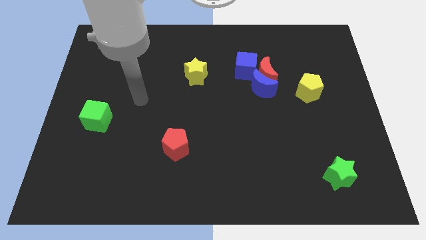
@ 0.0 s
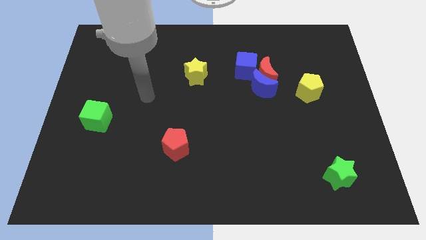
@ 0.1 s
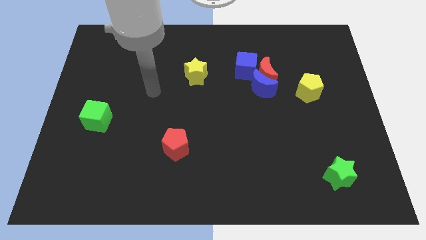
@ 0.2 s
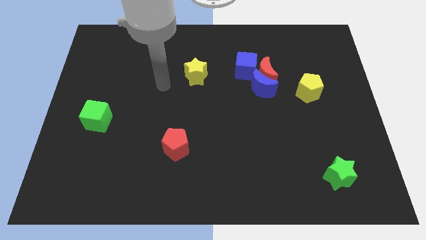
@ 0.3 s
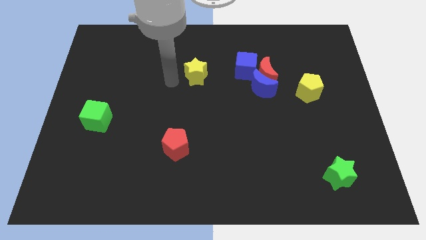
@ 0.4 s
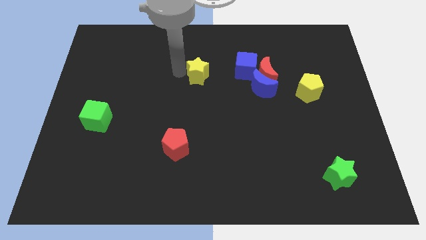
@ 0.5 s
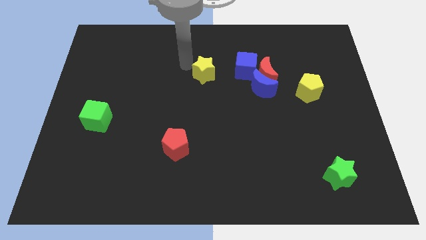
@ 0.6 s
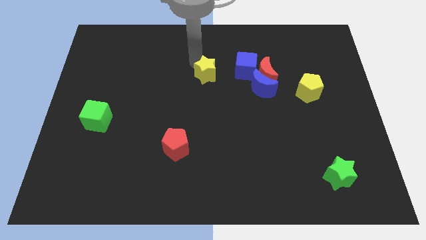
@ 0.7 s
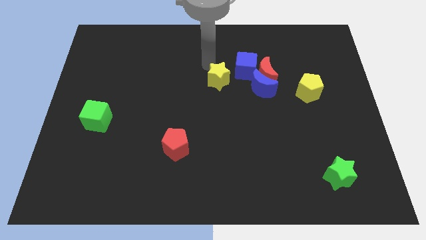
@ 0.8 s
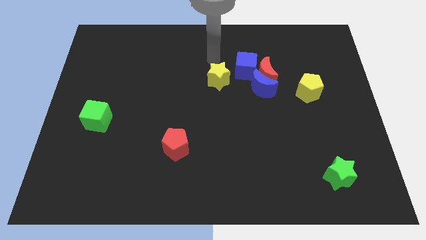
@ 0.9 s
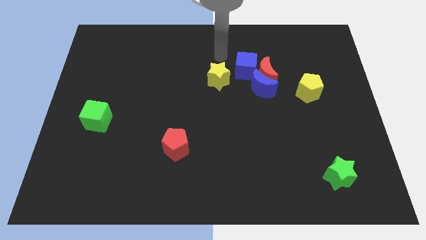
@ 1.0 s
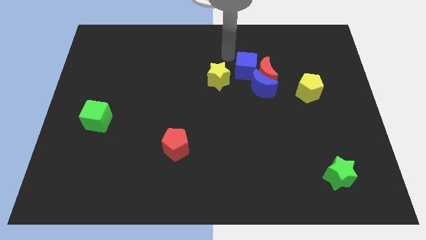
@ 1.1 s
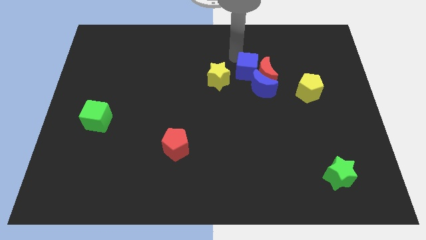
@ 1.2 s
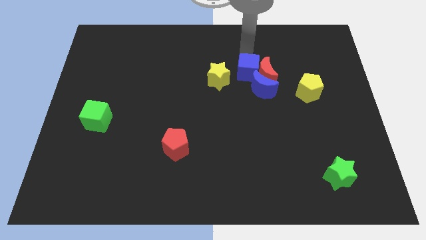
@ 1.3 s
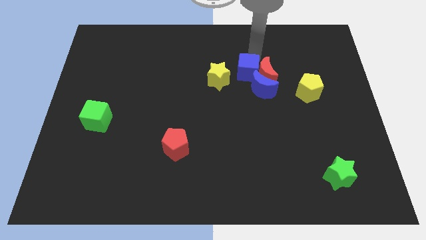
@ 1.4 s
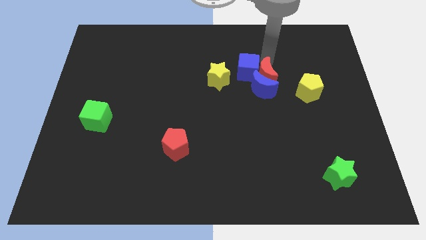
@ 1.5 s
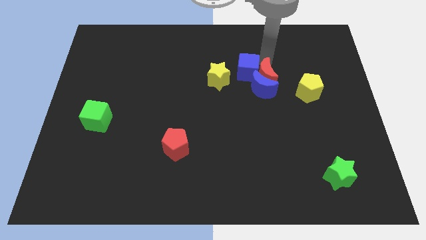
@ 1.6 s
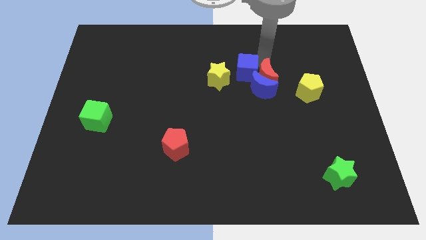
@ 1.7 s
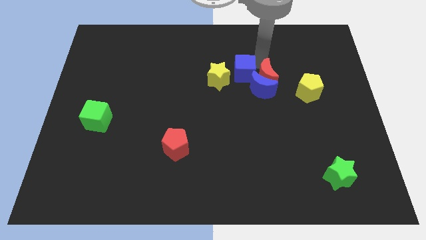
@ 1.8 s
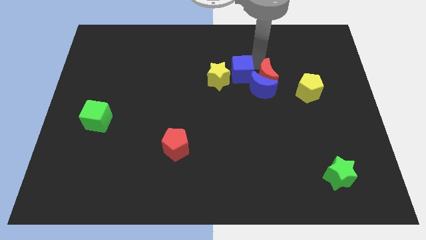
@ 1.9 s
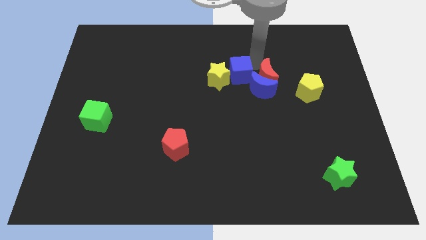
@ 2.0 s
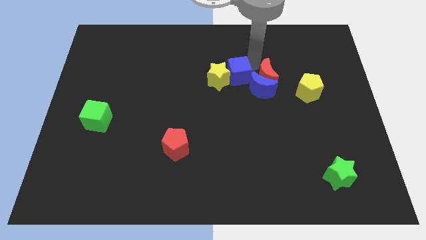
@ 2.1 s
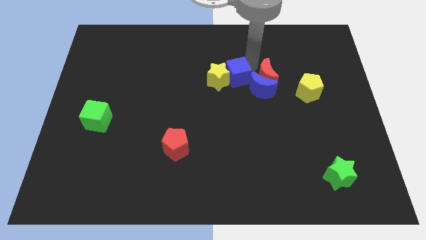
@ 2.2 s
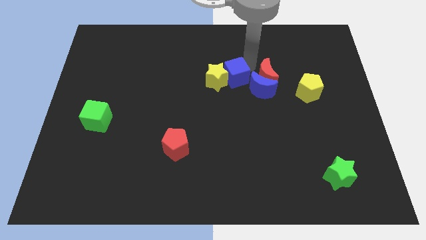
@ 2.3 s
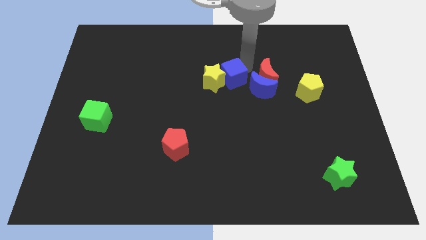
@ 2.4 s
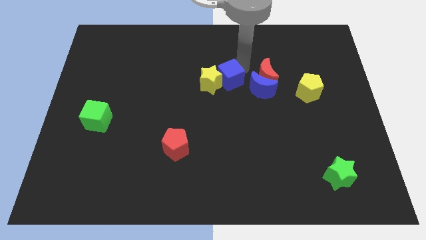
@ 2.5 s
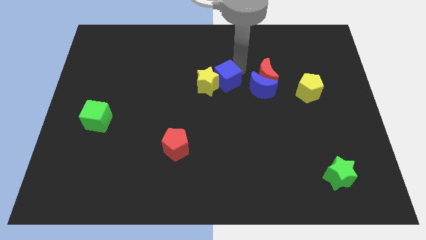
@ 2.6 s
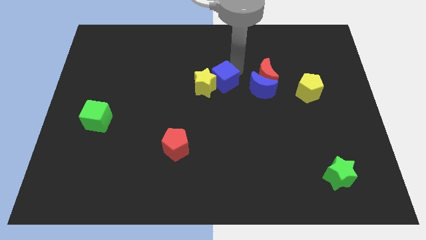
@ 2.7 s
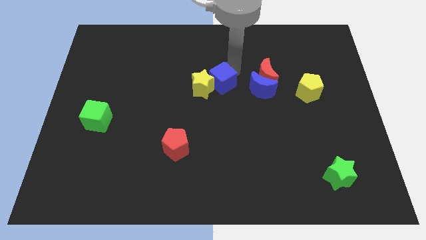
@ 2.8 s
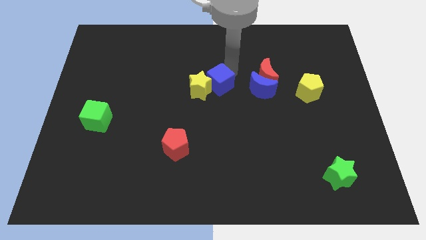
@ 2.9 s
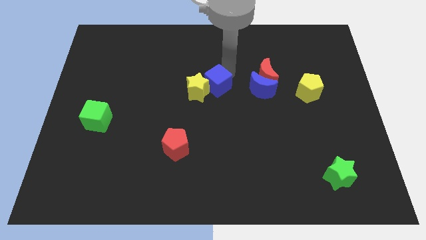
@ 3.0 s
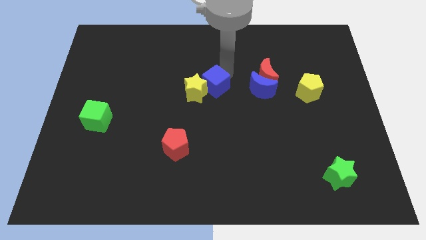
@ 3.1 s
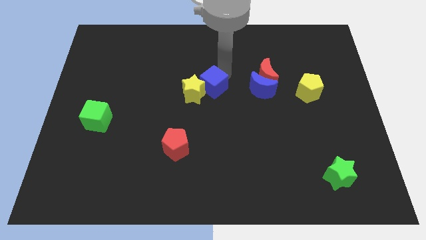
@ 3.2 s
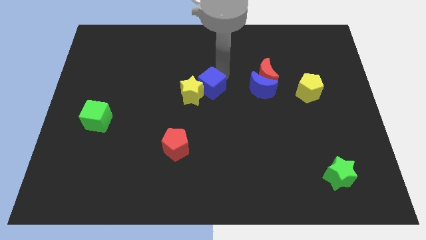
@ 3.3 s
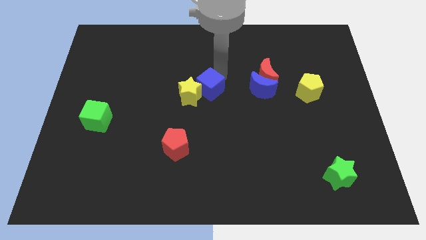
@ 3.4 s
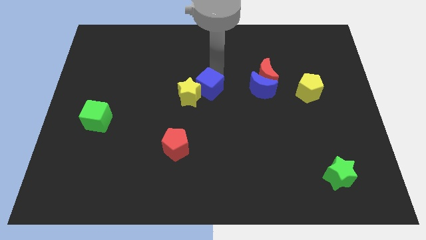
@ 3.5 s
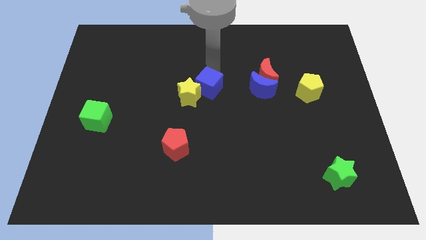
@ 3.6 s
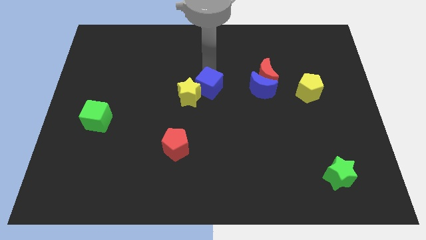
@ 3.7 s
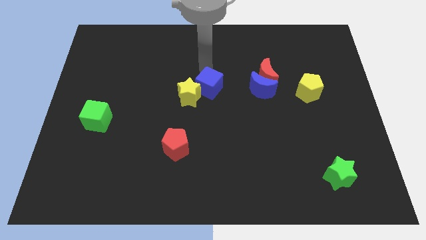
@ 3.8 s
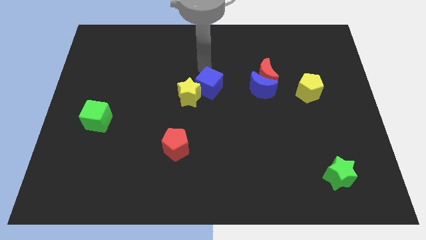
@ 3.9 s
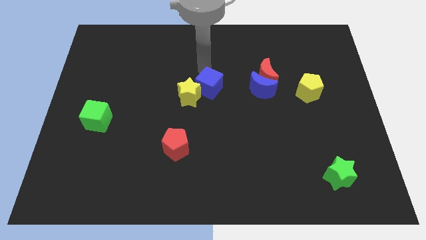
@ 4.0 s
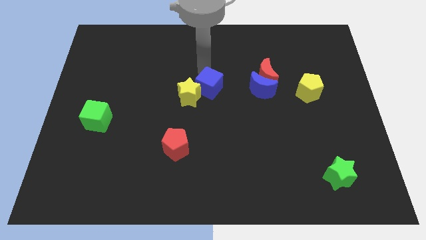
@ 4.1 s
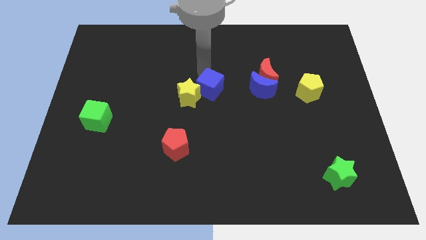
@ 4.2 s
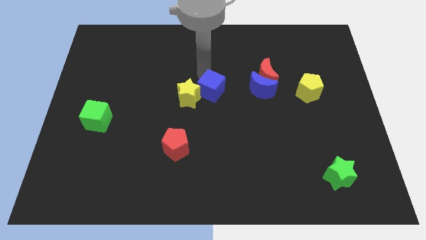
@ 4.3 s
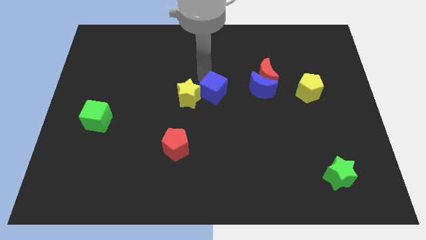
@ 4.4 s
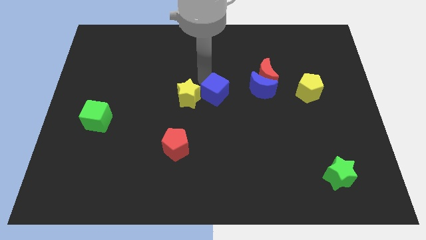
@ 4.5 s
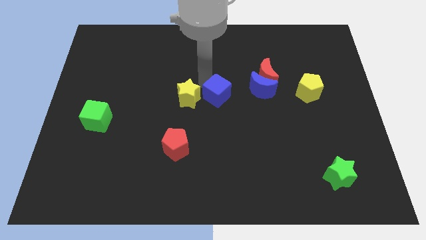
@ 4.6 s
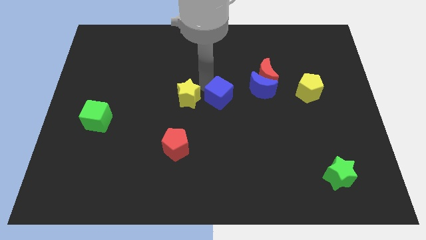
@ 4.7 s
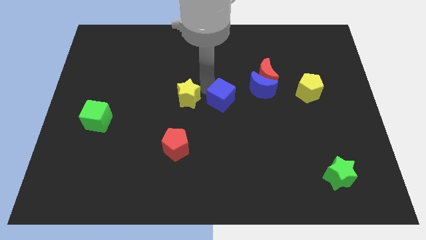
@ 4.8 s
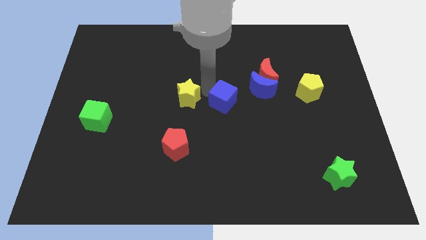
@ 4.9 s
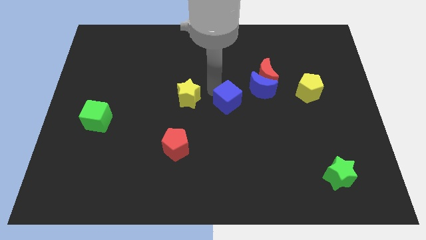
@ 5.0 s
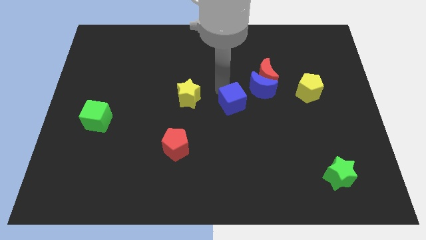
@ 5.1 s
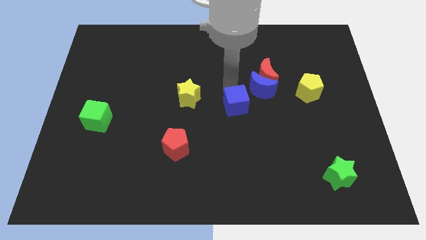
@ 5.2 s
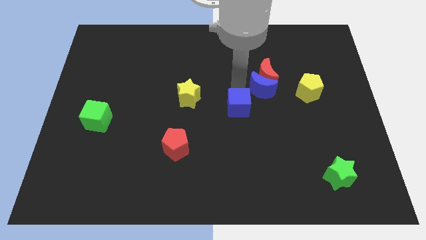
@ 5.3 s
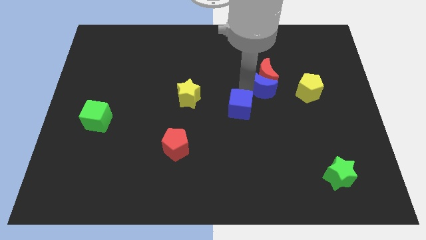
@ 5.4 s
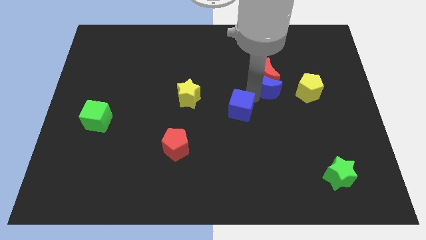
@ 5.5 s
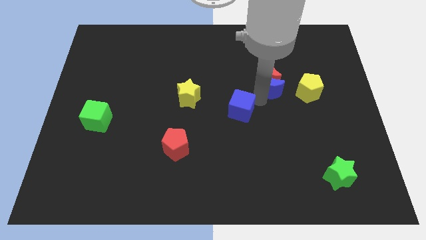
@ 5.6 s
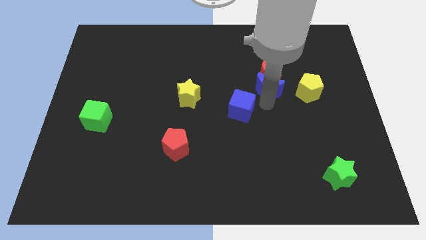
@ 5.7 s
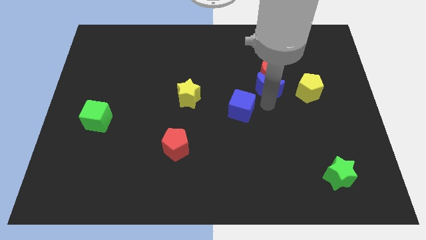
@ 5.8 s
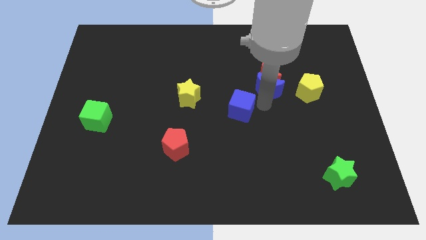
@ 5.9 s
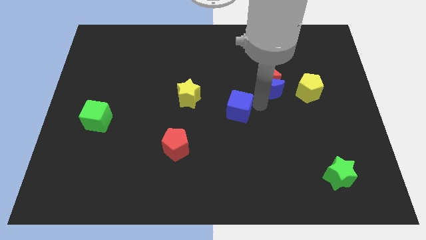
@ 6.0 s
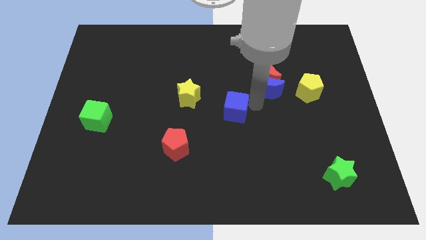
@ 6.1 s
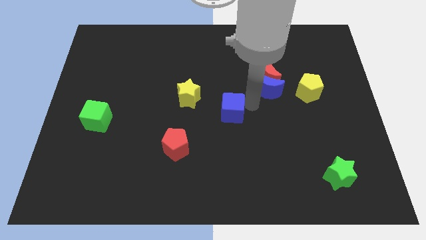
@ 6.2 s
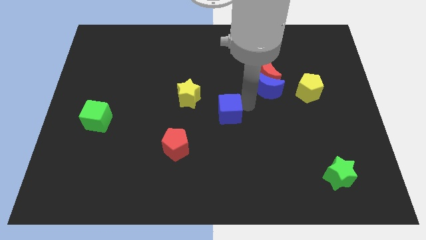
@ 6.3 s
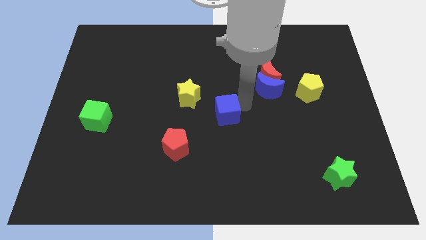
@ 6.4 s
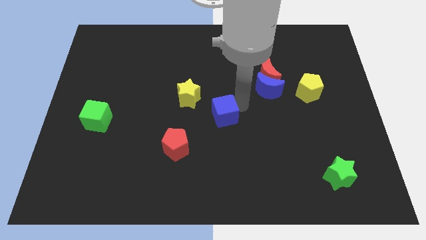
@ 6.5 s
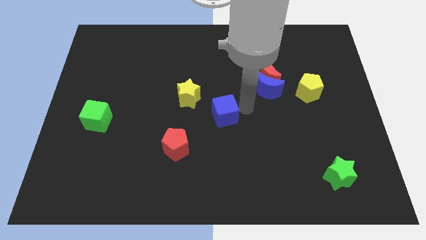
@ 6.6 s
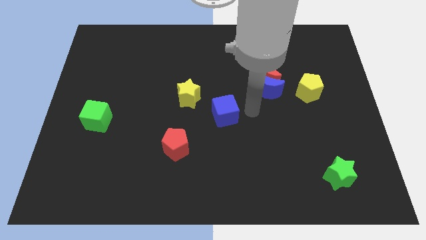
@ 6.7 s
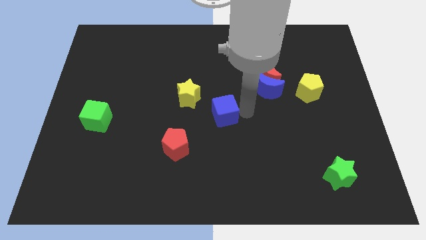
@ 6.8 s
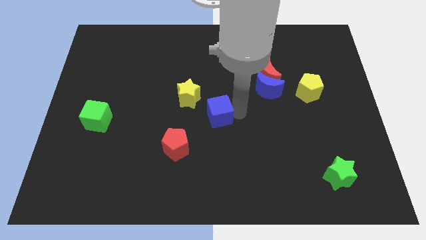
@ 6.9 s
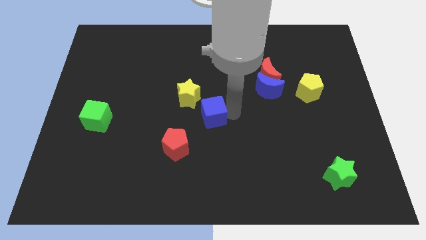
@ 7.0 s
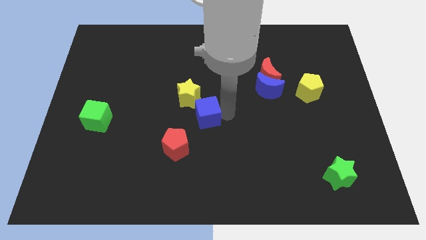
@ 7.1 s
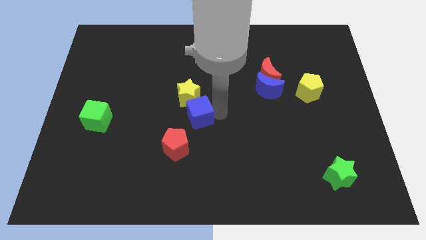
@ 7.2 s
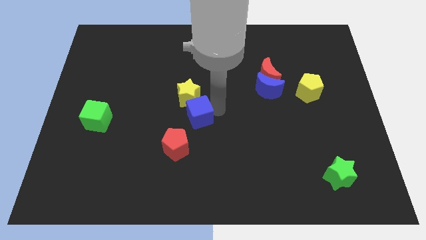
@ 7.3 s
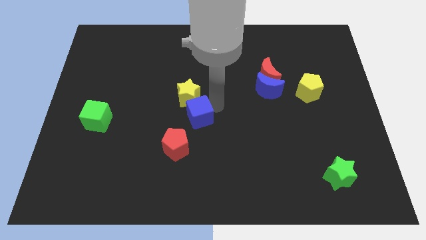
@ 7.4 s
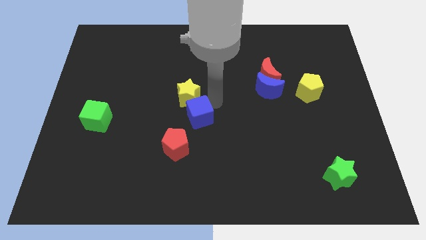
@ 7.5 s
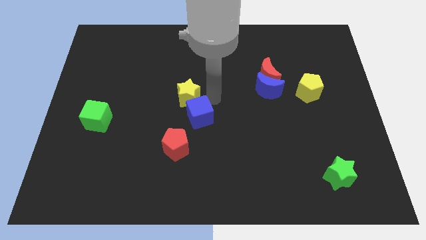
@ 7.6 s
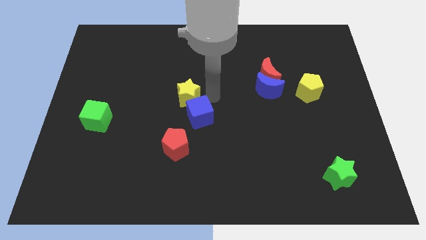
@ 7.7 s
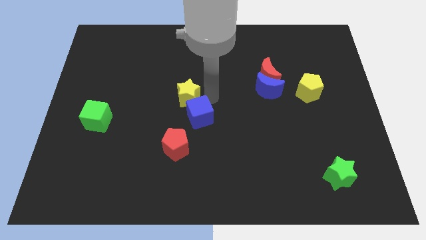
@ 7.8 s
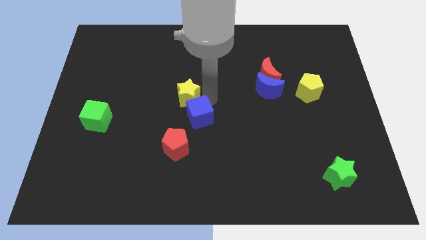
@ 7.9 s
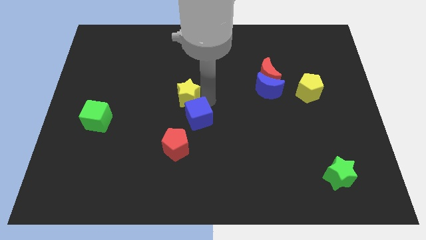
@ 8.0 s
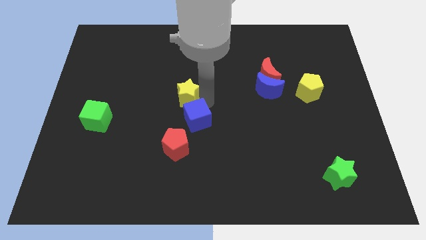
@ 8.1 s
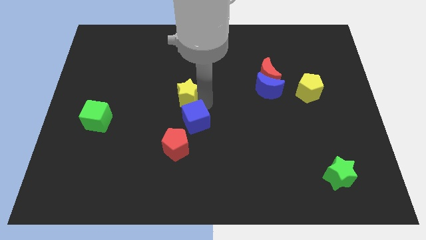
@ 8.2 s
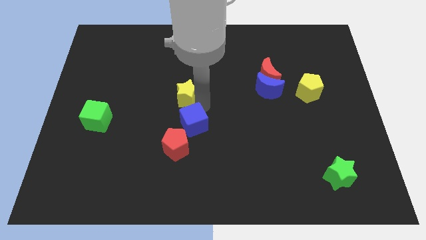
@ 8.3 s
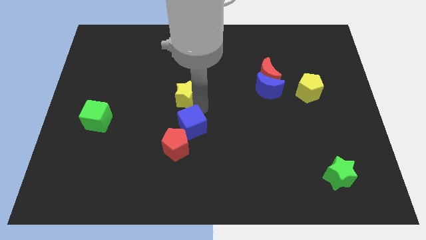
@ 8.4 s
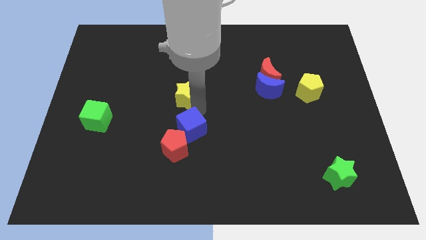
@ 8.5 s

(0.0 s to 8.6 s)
put the blue cube towards the red pentagon
